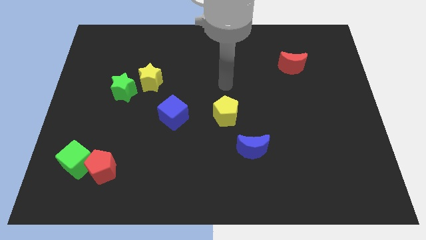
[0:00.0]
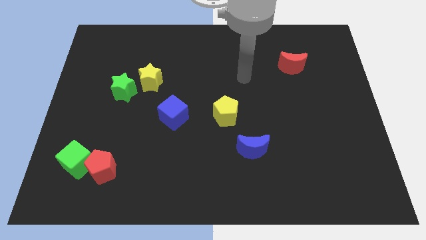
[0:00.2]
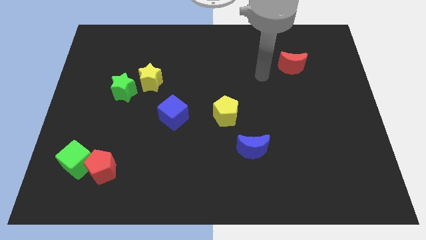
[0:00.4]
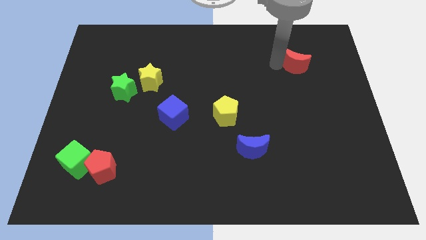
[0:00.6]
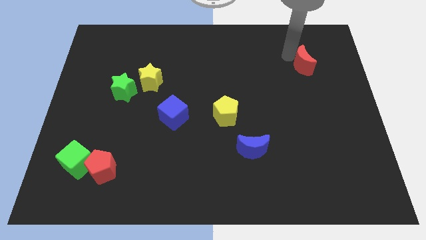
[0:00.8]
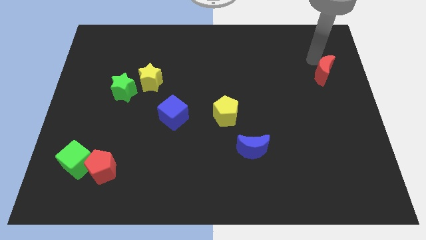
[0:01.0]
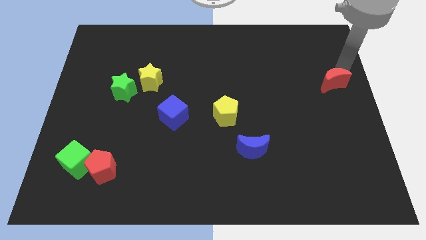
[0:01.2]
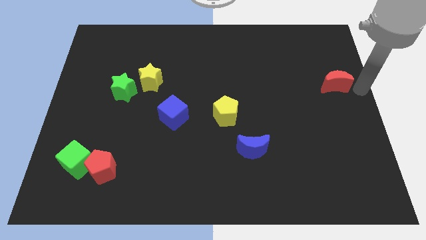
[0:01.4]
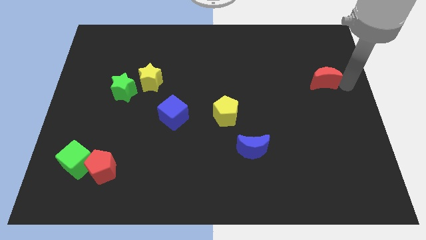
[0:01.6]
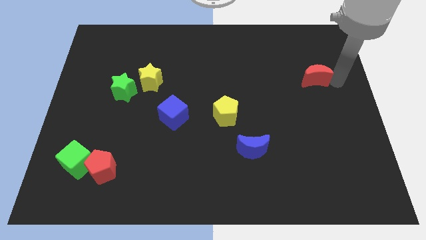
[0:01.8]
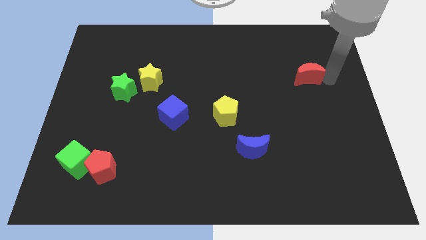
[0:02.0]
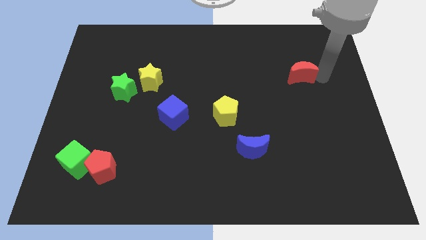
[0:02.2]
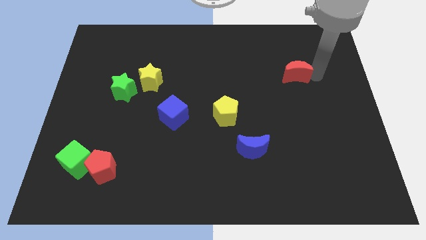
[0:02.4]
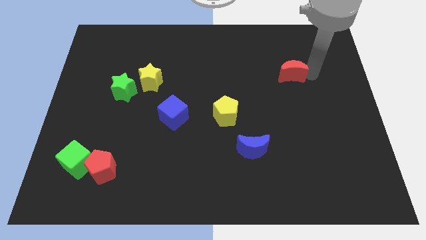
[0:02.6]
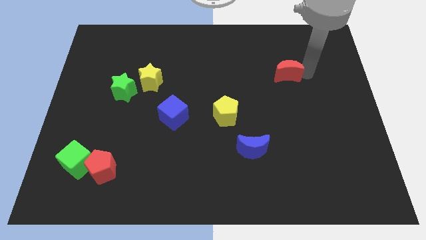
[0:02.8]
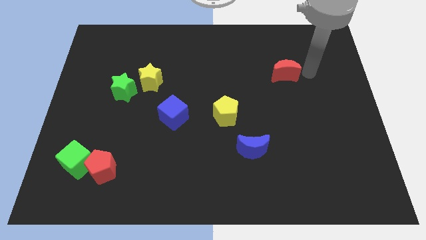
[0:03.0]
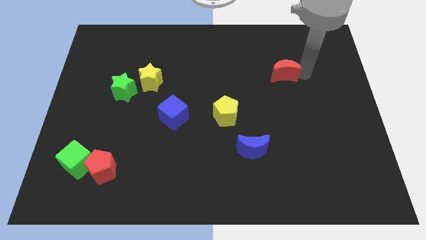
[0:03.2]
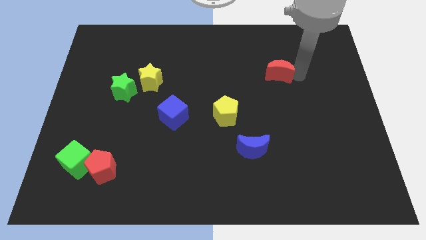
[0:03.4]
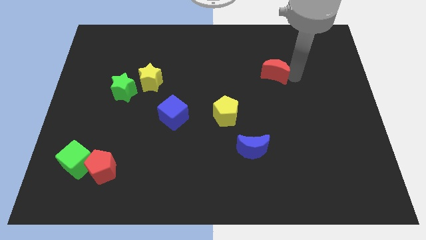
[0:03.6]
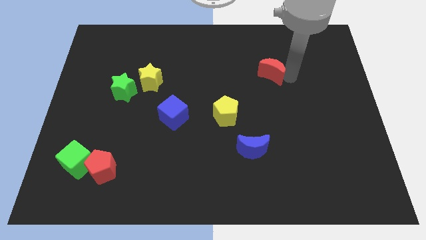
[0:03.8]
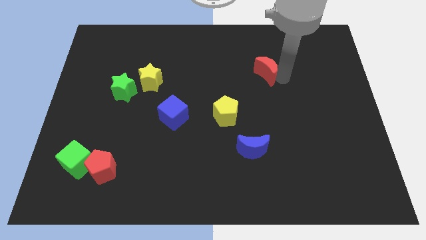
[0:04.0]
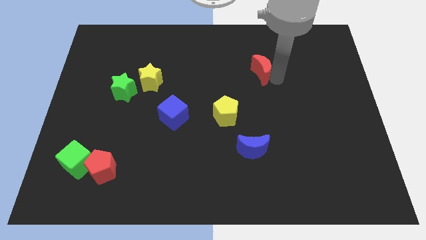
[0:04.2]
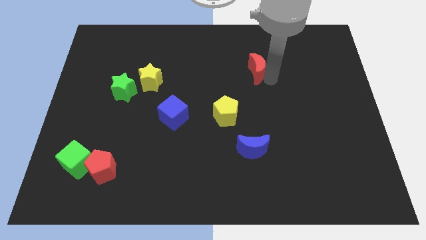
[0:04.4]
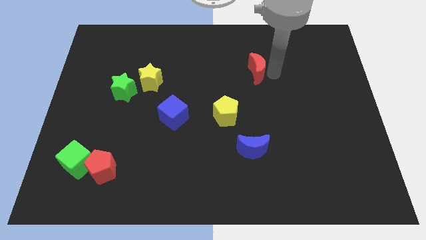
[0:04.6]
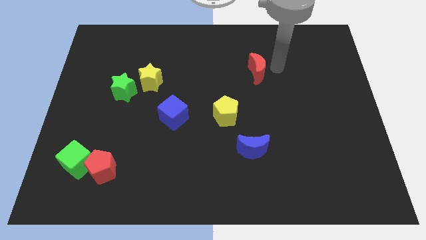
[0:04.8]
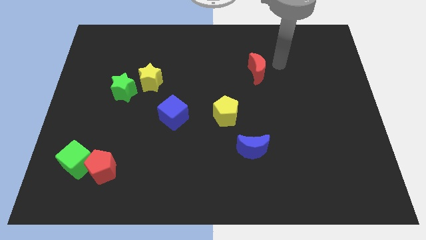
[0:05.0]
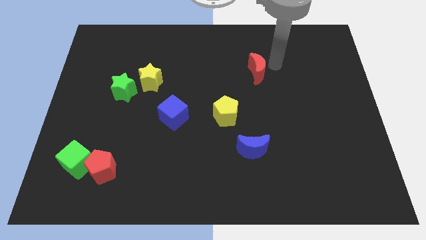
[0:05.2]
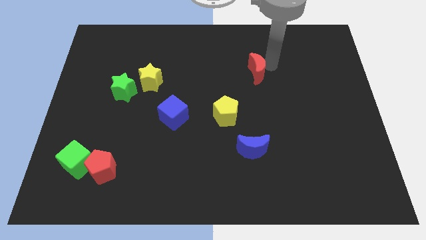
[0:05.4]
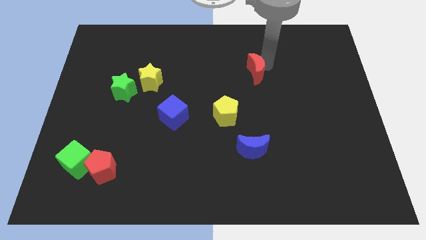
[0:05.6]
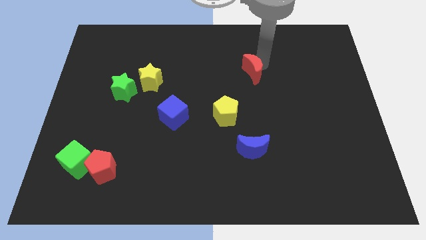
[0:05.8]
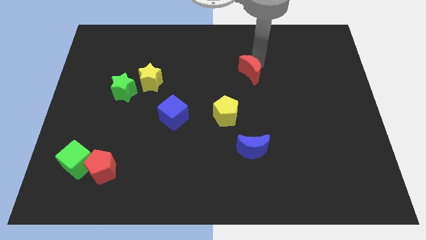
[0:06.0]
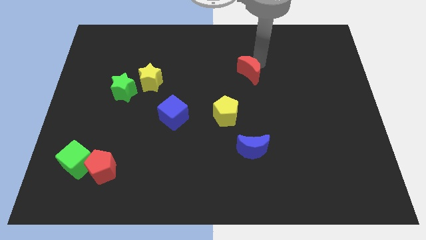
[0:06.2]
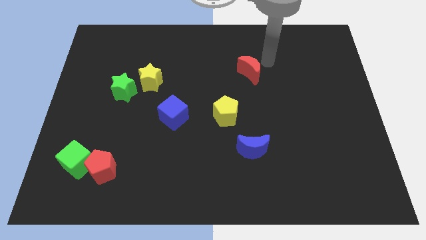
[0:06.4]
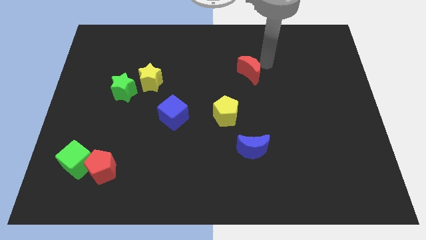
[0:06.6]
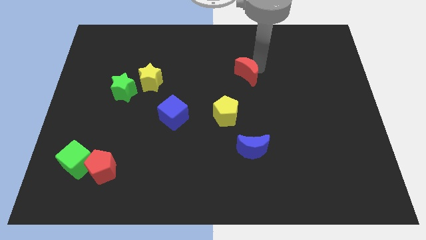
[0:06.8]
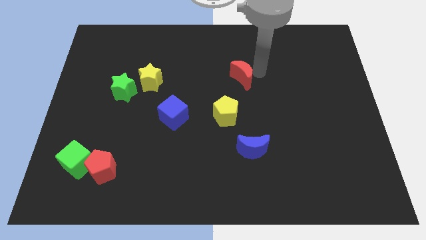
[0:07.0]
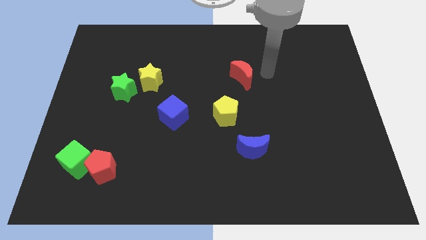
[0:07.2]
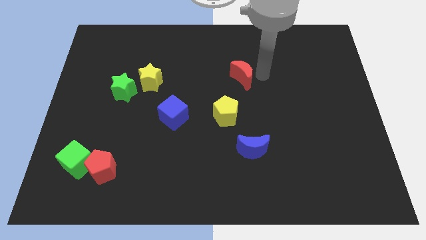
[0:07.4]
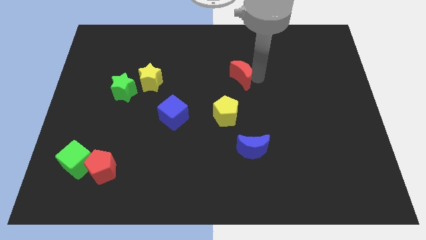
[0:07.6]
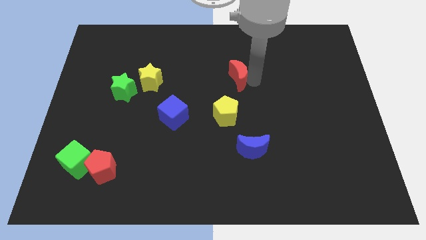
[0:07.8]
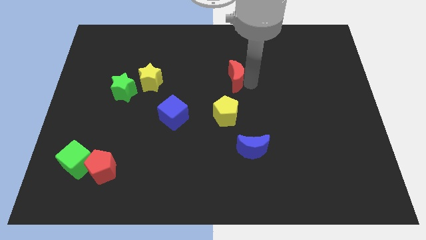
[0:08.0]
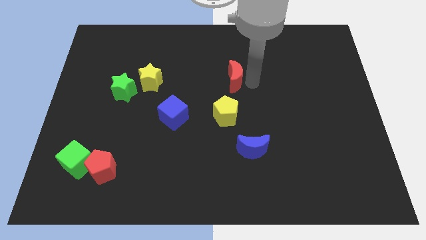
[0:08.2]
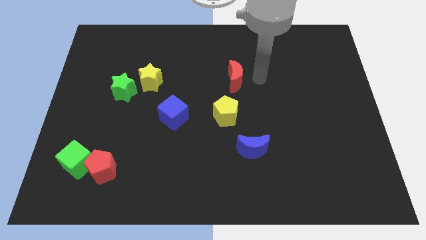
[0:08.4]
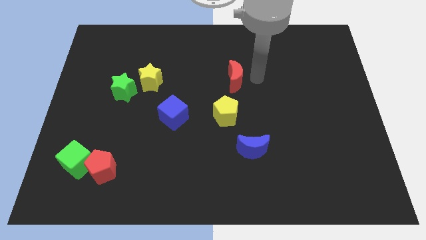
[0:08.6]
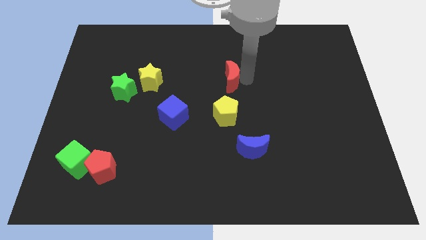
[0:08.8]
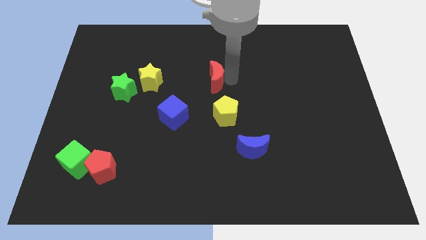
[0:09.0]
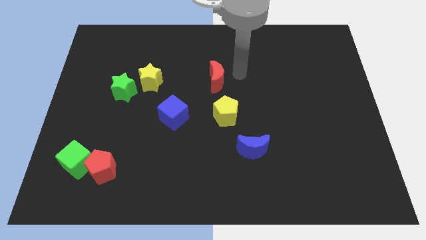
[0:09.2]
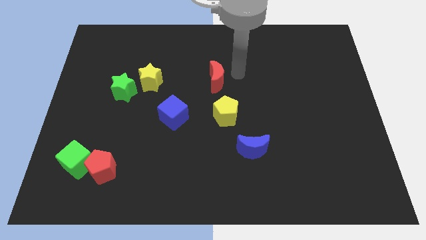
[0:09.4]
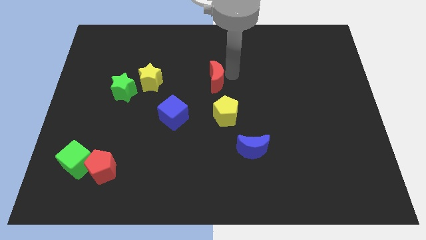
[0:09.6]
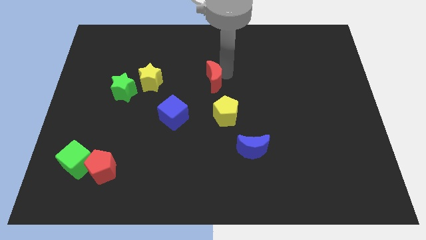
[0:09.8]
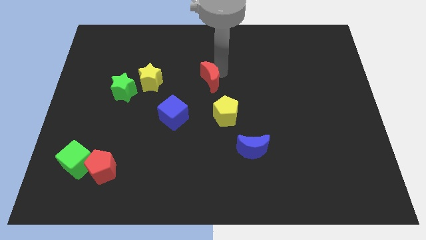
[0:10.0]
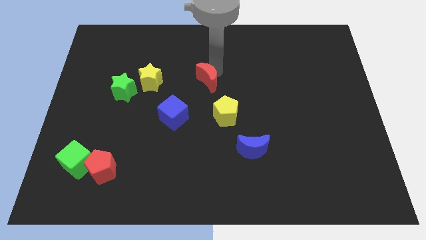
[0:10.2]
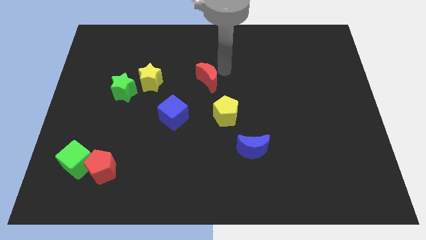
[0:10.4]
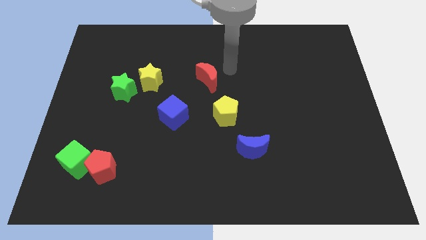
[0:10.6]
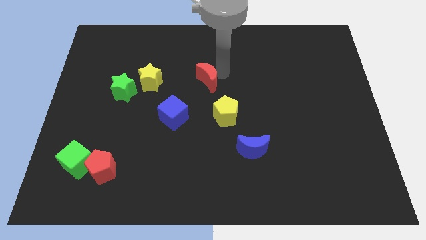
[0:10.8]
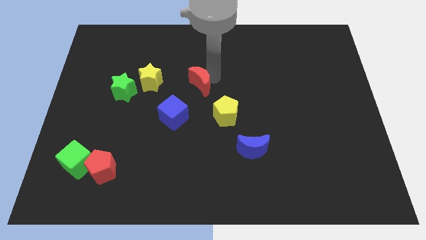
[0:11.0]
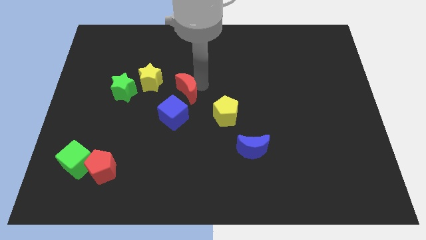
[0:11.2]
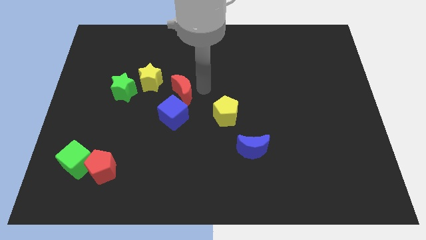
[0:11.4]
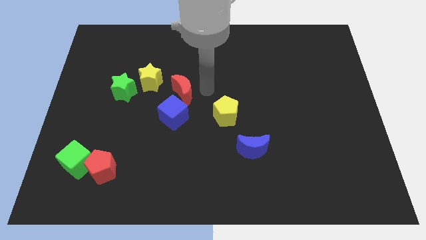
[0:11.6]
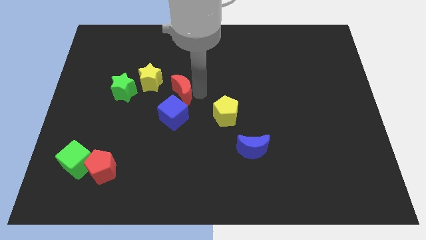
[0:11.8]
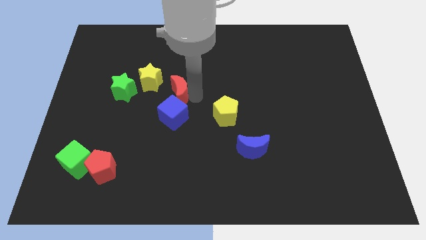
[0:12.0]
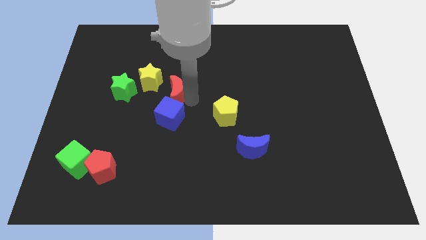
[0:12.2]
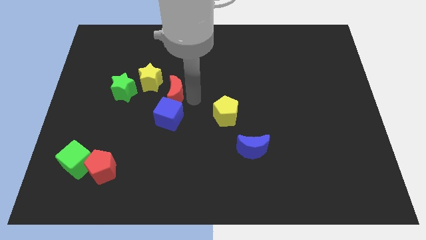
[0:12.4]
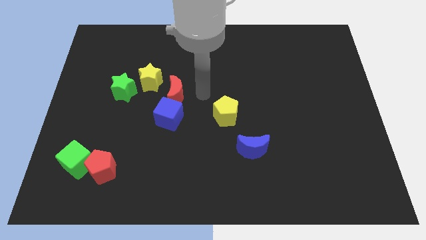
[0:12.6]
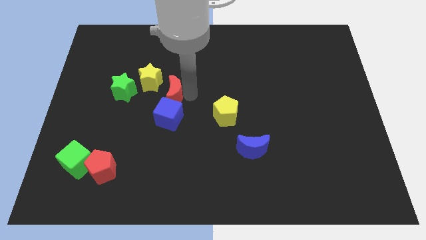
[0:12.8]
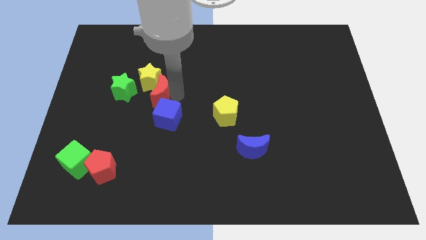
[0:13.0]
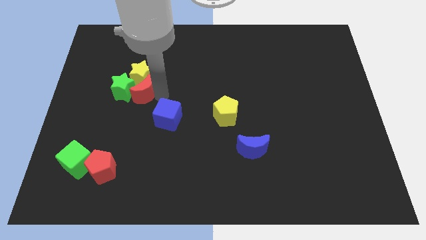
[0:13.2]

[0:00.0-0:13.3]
push the red moon to the green star
